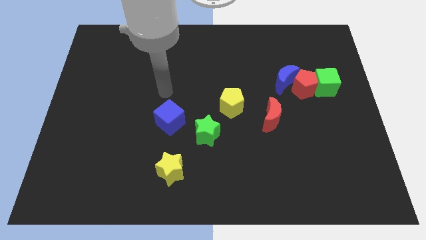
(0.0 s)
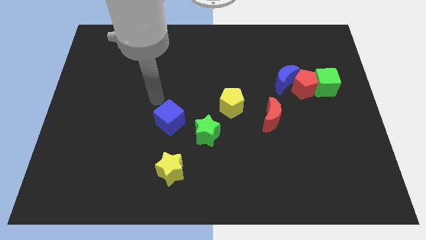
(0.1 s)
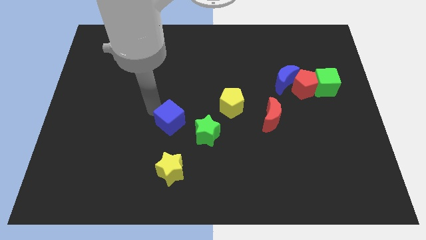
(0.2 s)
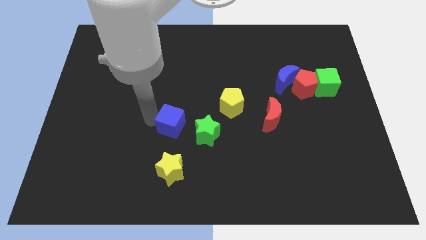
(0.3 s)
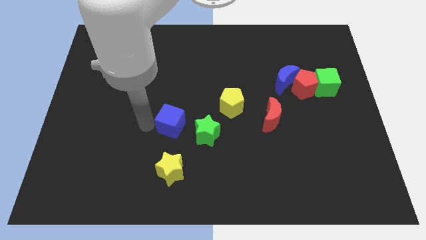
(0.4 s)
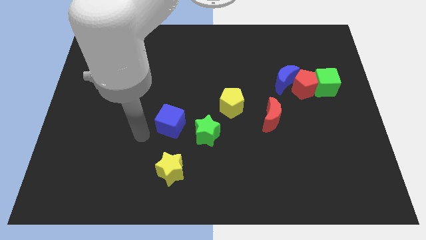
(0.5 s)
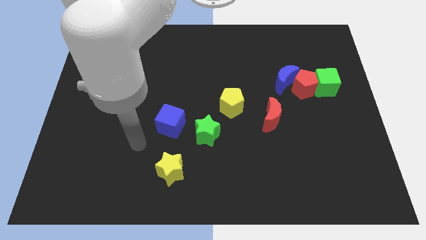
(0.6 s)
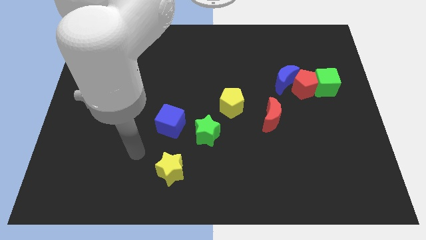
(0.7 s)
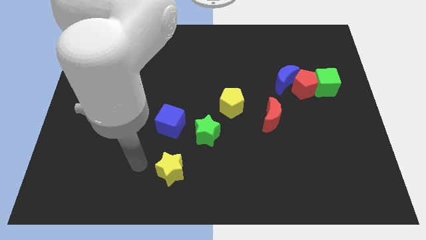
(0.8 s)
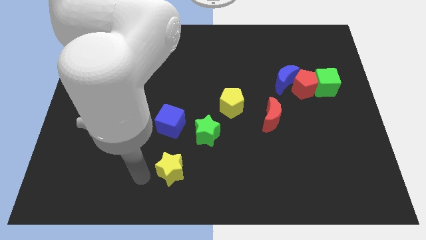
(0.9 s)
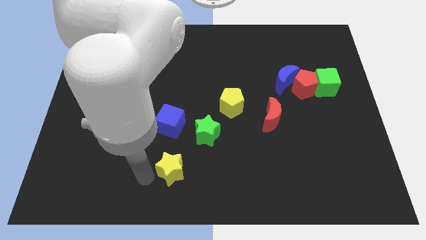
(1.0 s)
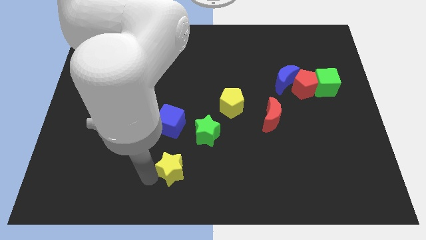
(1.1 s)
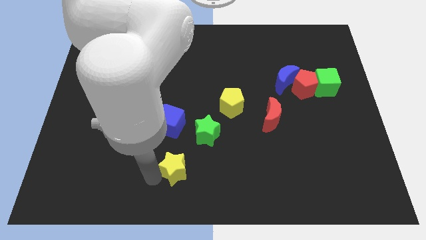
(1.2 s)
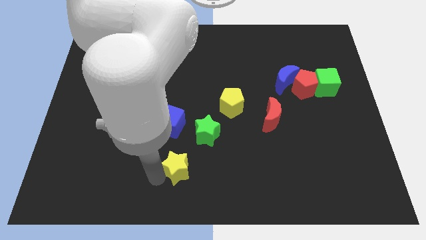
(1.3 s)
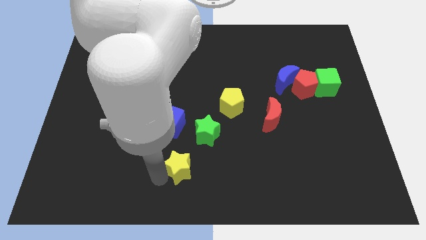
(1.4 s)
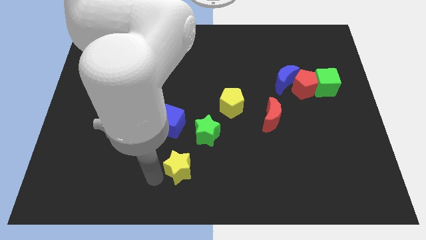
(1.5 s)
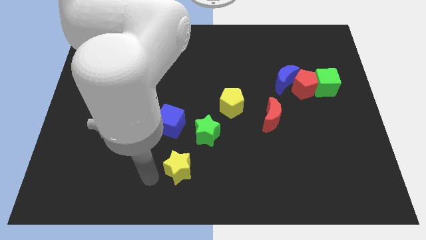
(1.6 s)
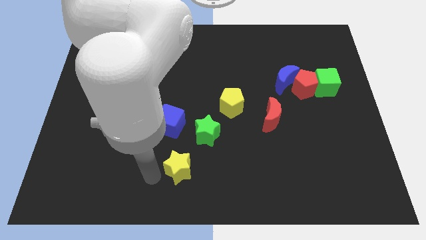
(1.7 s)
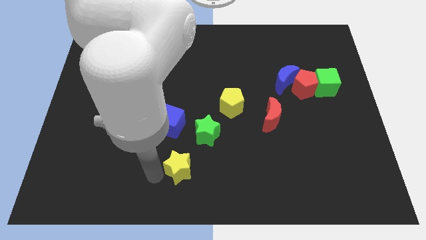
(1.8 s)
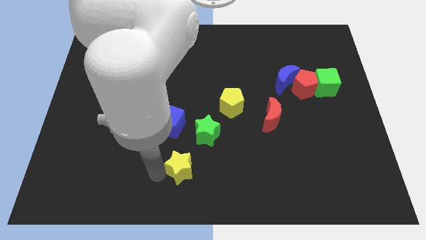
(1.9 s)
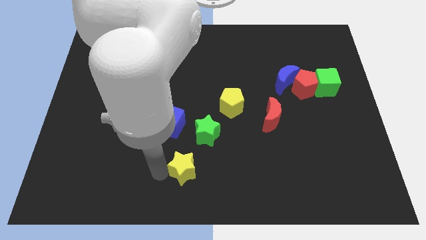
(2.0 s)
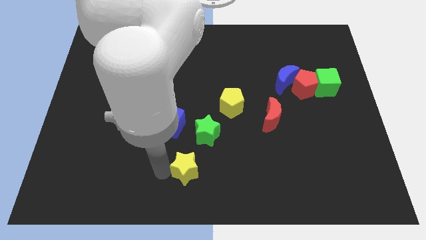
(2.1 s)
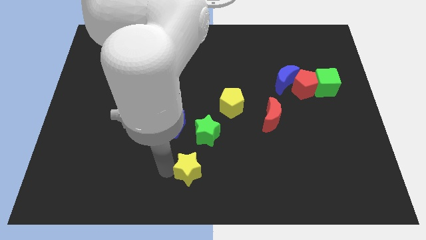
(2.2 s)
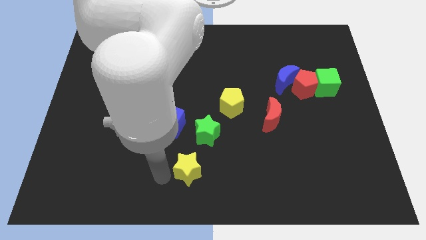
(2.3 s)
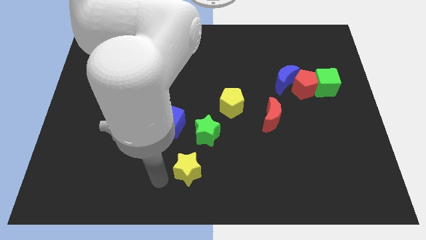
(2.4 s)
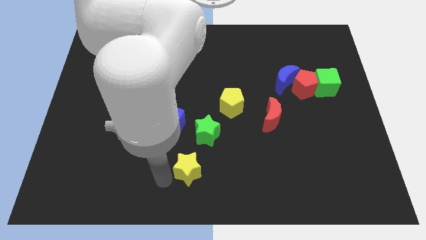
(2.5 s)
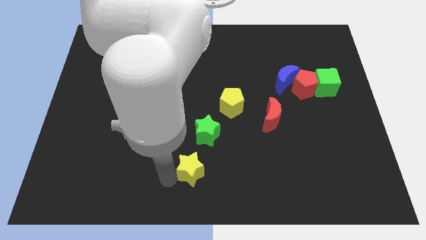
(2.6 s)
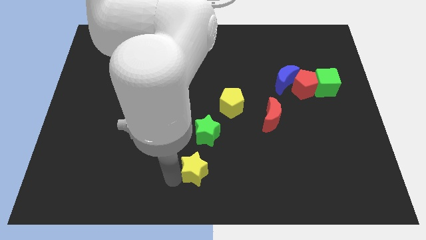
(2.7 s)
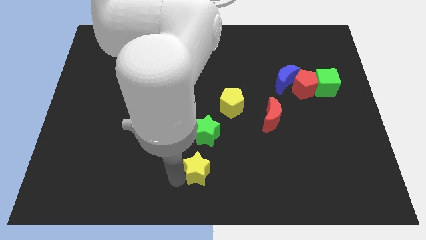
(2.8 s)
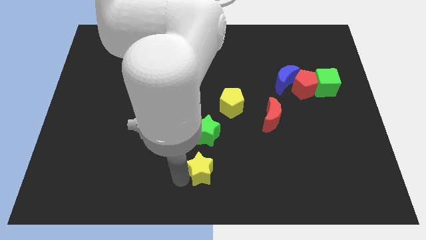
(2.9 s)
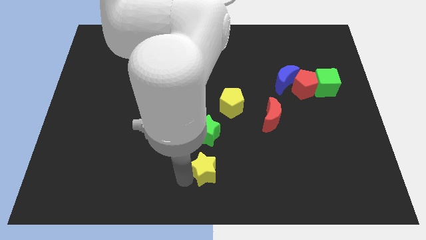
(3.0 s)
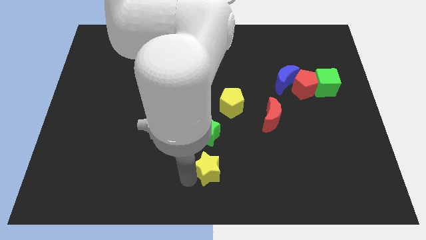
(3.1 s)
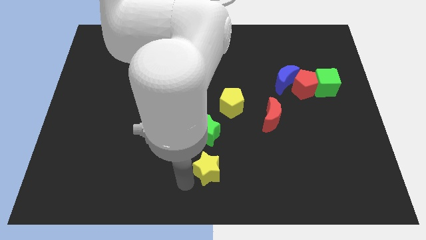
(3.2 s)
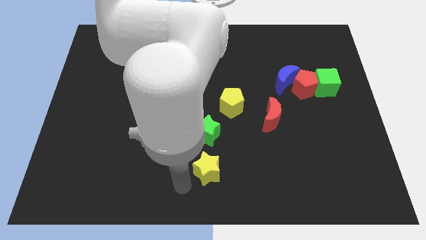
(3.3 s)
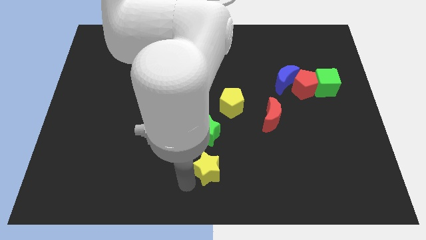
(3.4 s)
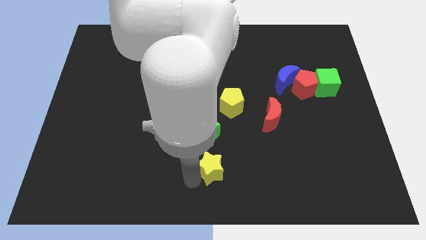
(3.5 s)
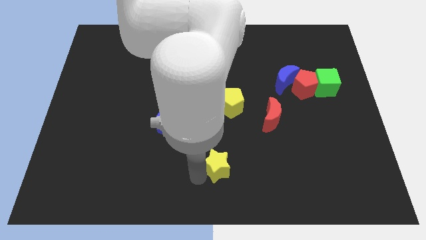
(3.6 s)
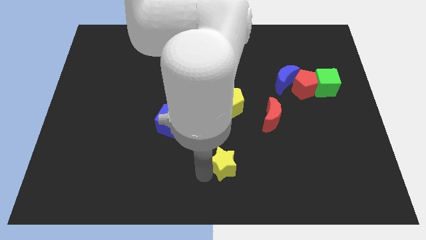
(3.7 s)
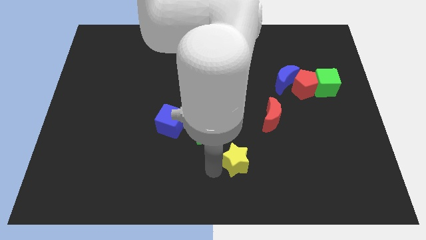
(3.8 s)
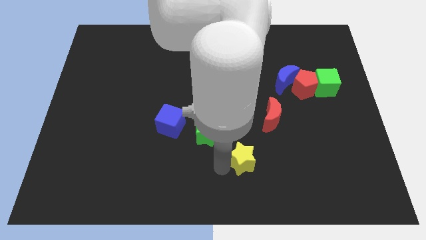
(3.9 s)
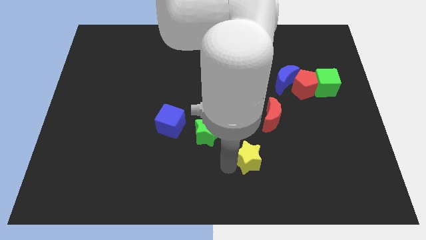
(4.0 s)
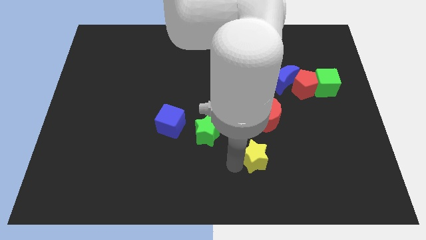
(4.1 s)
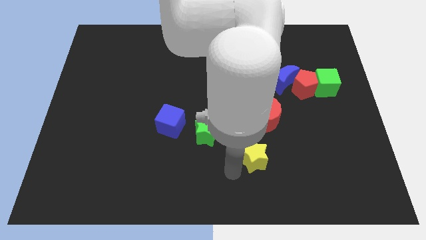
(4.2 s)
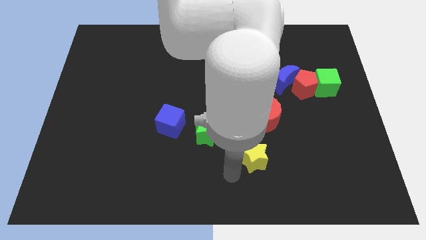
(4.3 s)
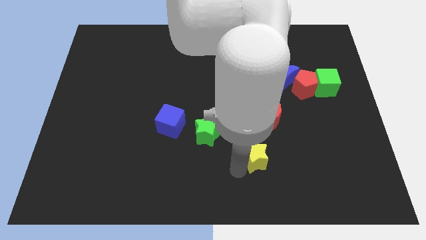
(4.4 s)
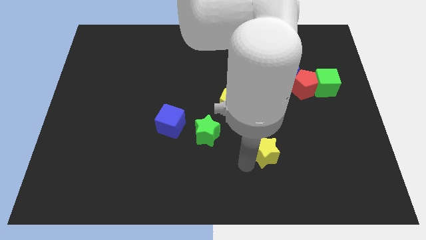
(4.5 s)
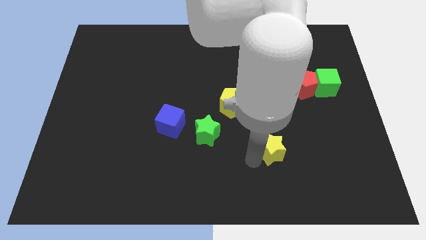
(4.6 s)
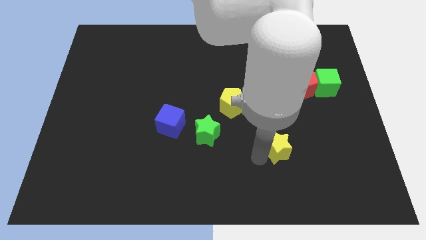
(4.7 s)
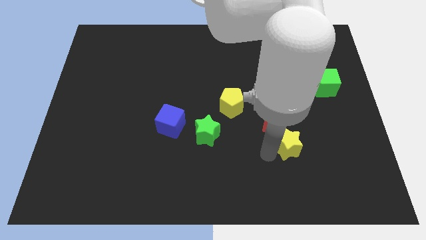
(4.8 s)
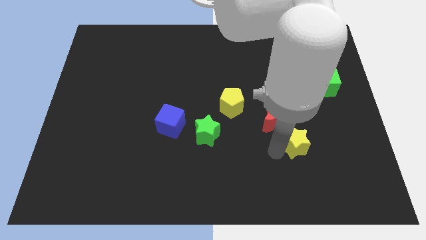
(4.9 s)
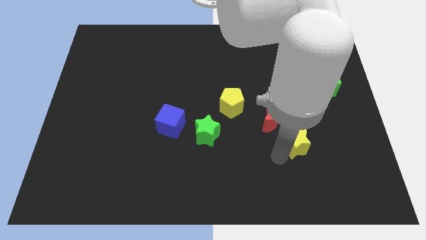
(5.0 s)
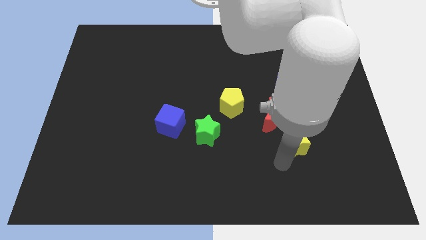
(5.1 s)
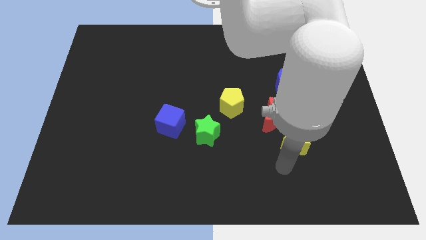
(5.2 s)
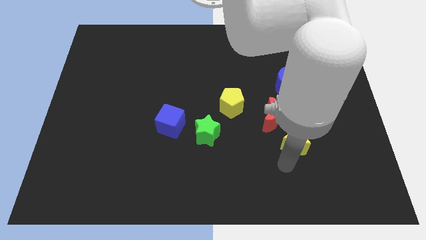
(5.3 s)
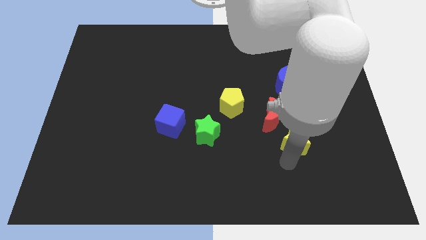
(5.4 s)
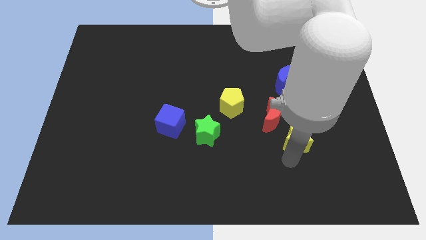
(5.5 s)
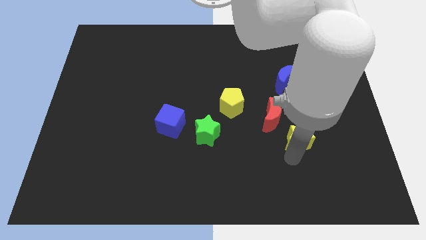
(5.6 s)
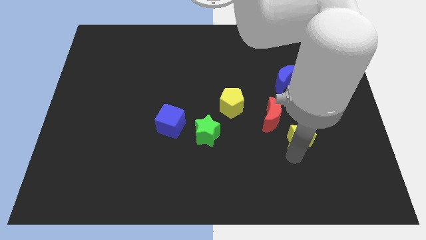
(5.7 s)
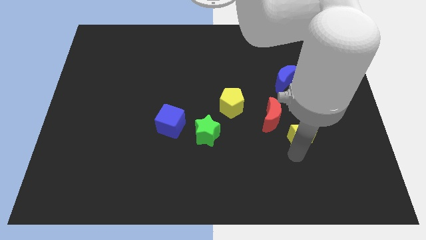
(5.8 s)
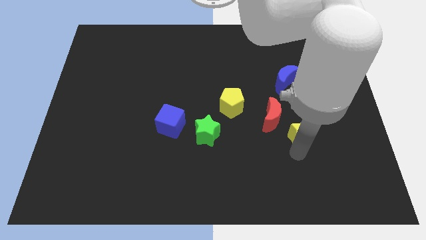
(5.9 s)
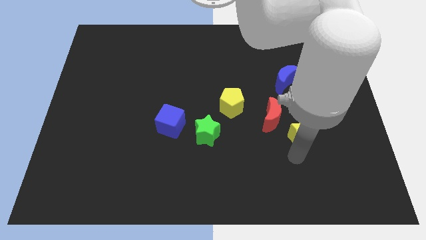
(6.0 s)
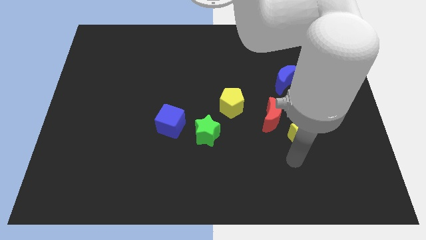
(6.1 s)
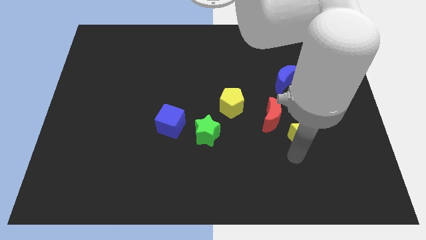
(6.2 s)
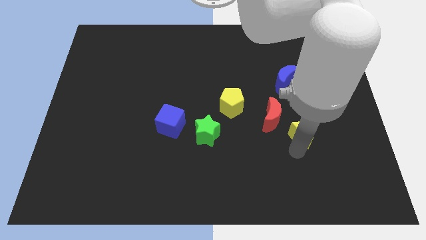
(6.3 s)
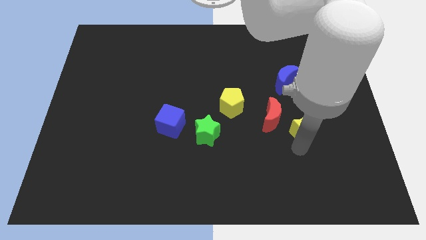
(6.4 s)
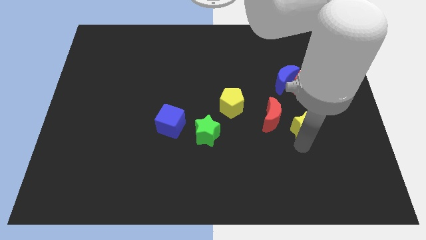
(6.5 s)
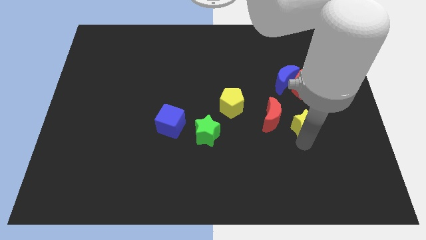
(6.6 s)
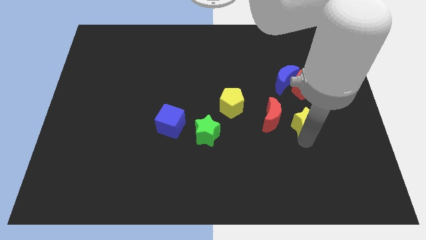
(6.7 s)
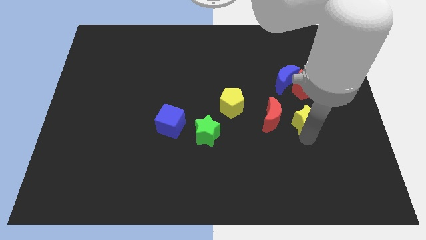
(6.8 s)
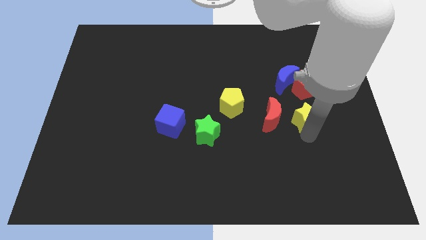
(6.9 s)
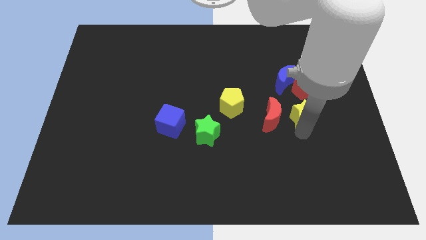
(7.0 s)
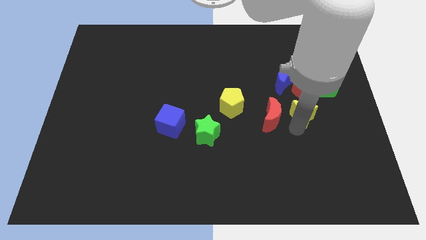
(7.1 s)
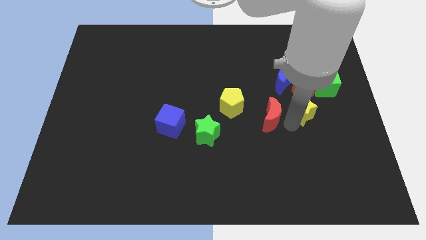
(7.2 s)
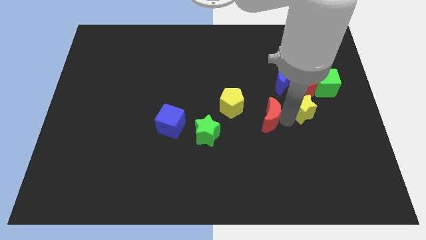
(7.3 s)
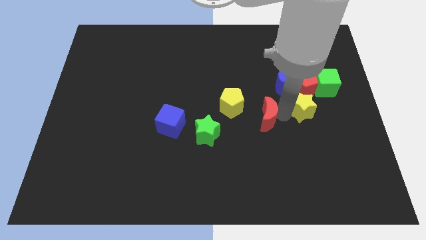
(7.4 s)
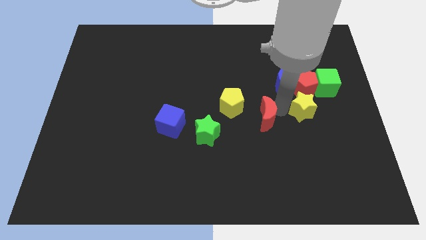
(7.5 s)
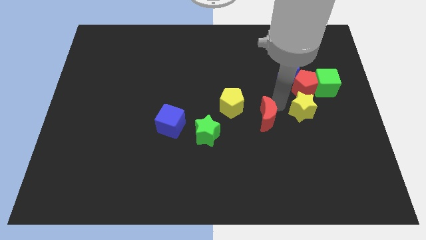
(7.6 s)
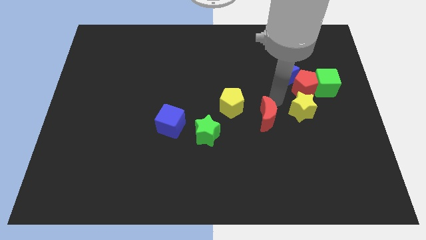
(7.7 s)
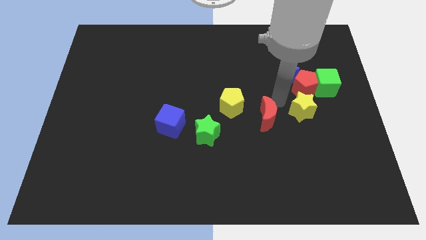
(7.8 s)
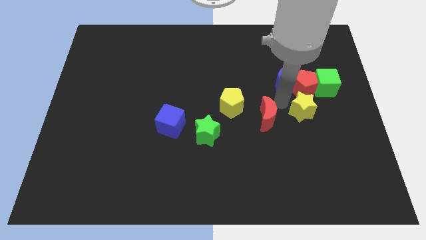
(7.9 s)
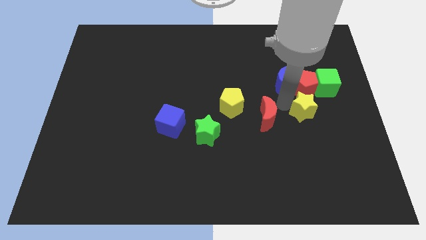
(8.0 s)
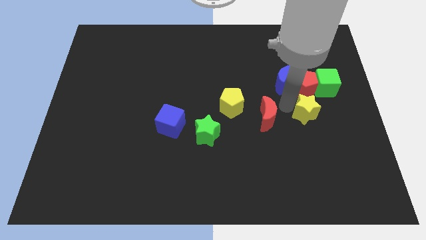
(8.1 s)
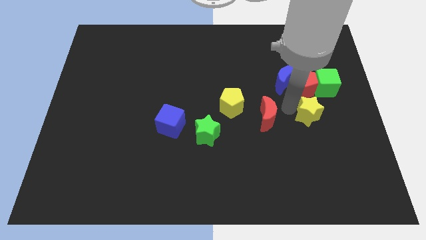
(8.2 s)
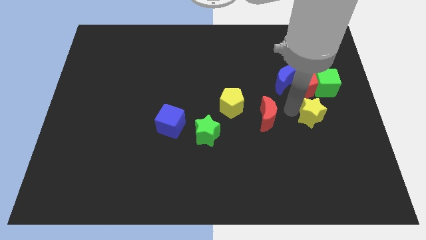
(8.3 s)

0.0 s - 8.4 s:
push the yellow star to the bottom of the green cube
